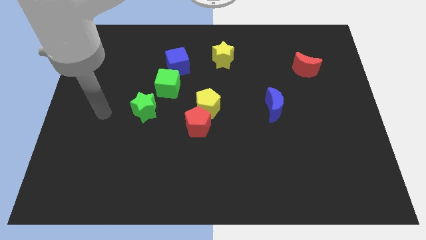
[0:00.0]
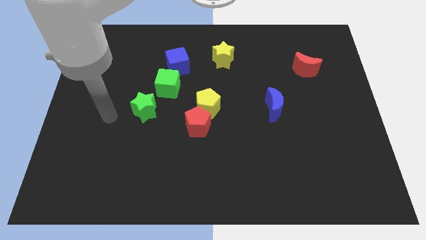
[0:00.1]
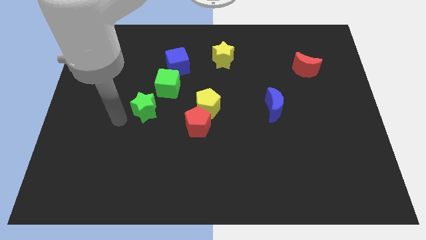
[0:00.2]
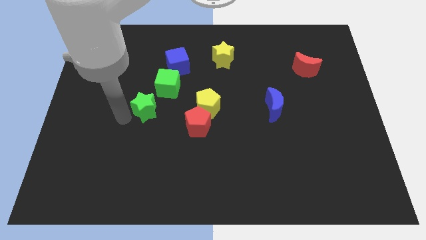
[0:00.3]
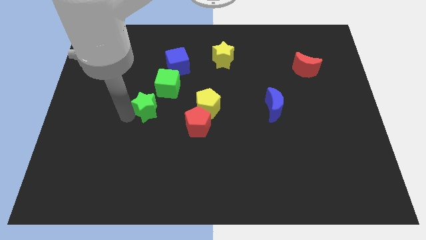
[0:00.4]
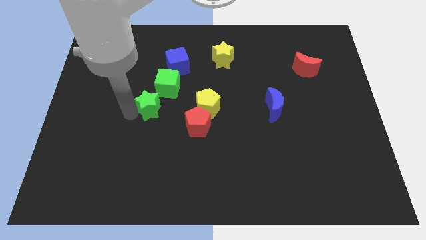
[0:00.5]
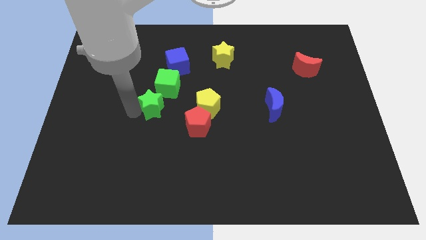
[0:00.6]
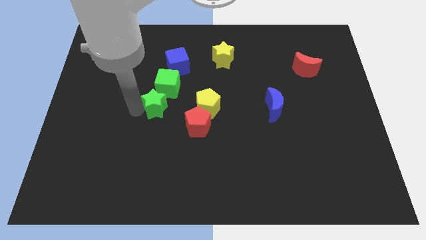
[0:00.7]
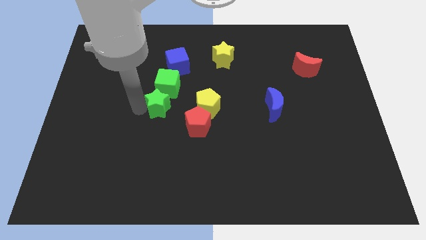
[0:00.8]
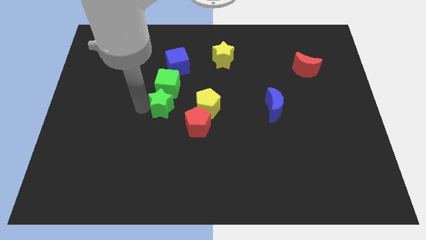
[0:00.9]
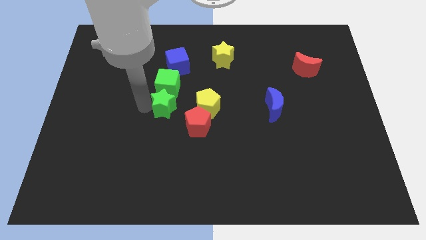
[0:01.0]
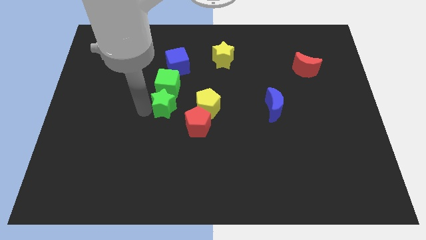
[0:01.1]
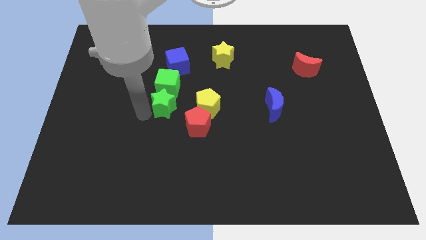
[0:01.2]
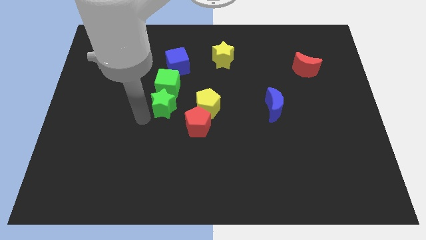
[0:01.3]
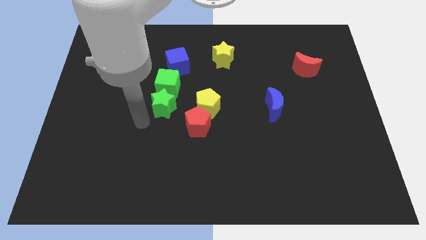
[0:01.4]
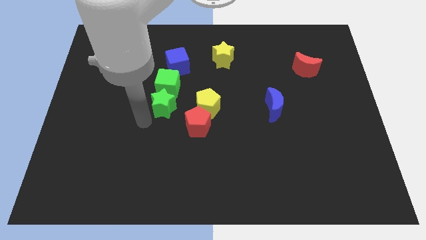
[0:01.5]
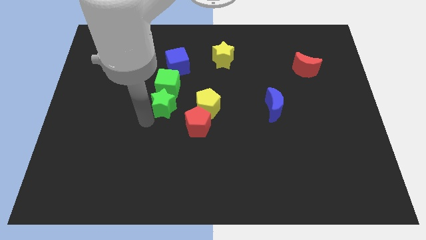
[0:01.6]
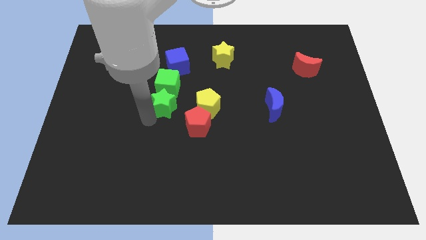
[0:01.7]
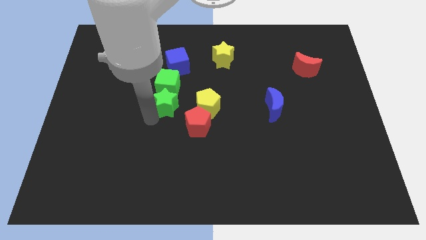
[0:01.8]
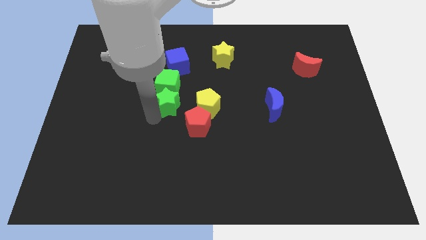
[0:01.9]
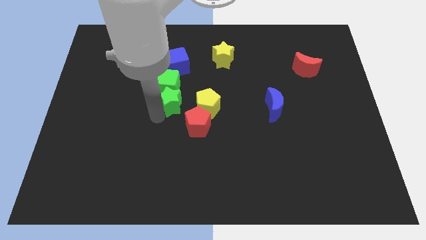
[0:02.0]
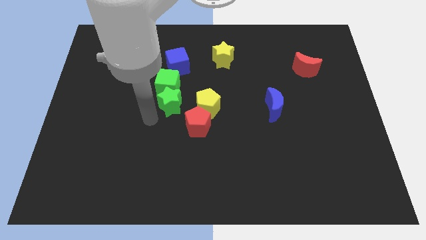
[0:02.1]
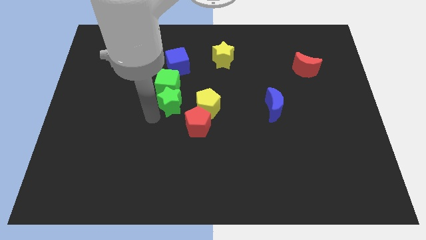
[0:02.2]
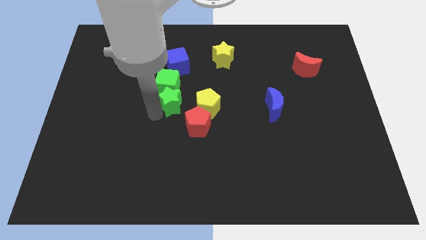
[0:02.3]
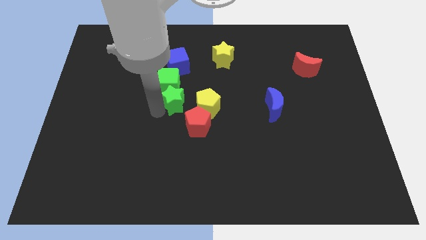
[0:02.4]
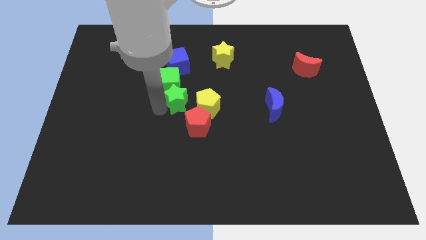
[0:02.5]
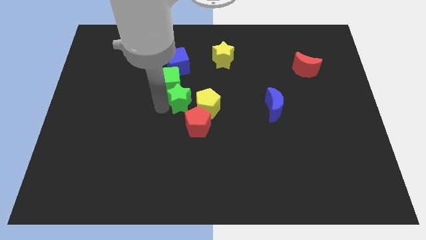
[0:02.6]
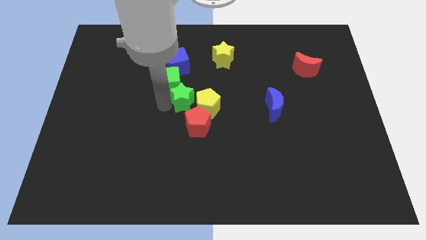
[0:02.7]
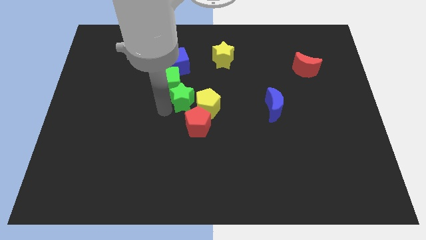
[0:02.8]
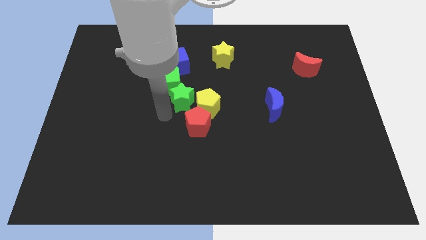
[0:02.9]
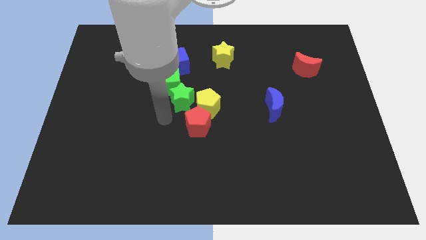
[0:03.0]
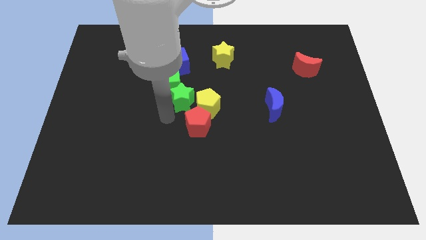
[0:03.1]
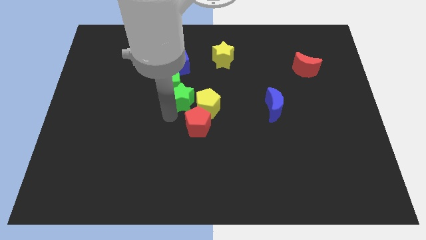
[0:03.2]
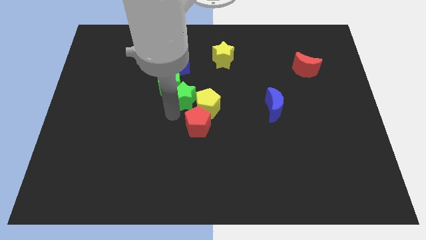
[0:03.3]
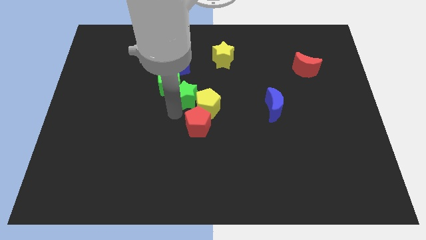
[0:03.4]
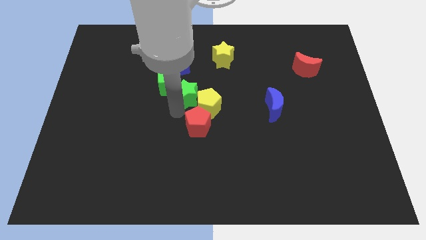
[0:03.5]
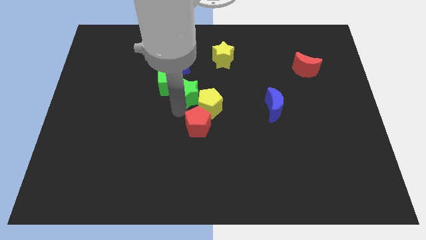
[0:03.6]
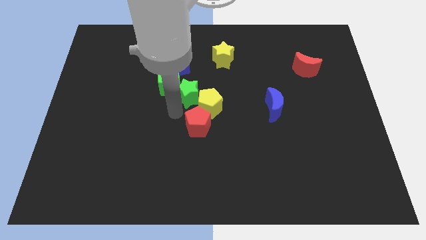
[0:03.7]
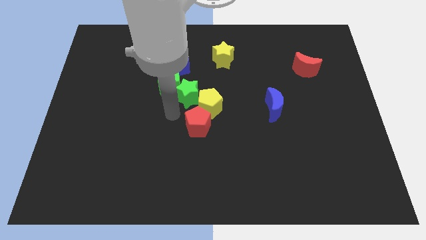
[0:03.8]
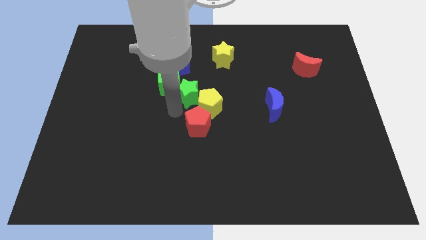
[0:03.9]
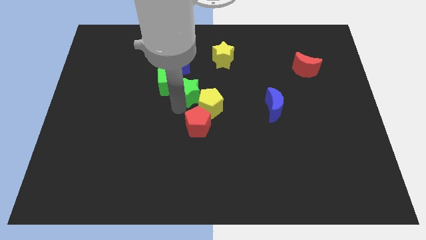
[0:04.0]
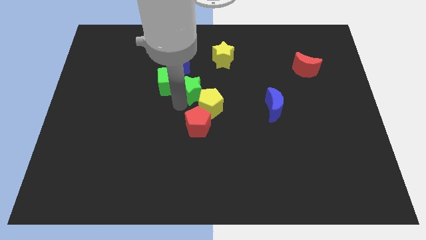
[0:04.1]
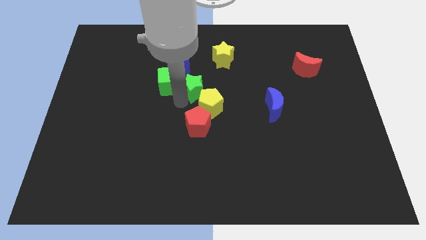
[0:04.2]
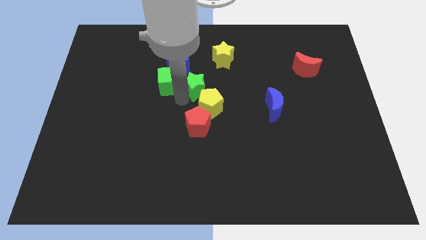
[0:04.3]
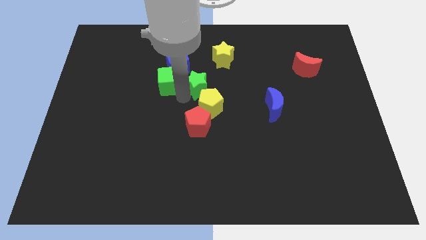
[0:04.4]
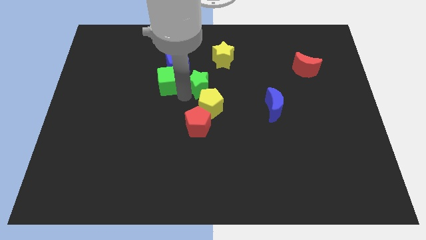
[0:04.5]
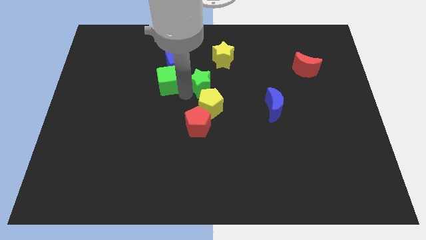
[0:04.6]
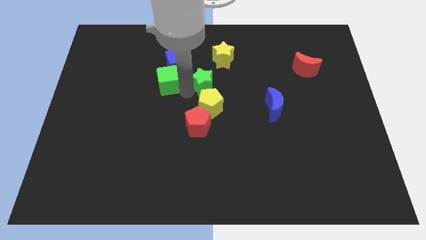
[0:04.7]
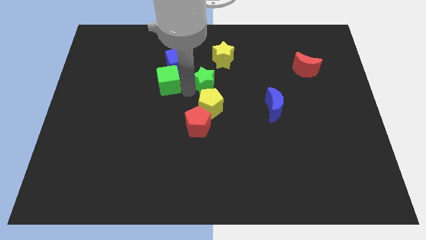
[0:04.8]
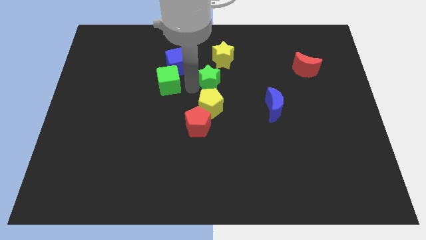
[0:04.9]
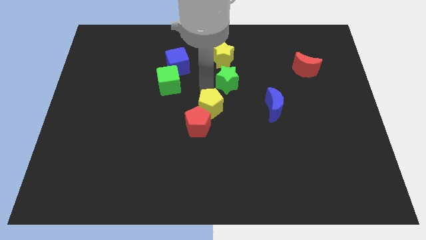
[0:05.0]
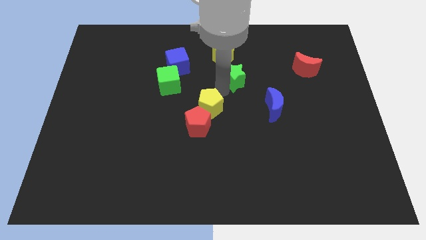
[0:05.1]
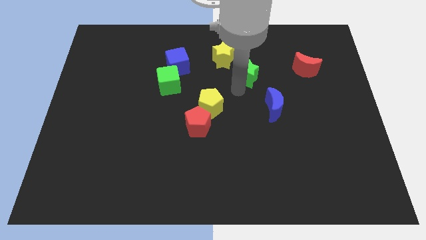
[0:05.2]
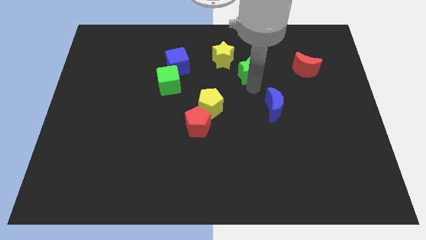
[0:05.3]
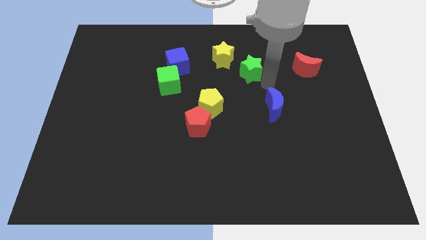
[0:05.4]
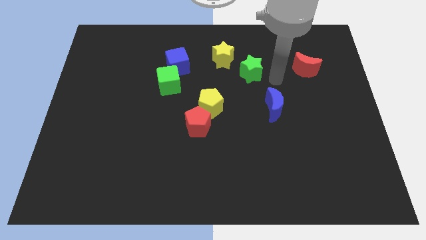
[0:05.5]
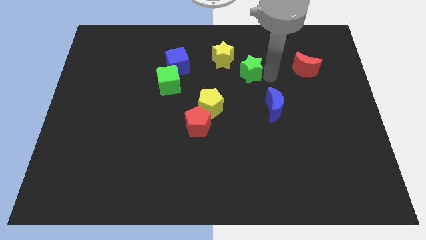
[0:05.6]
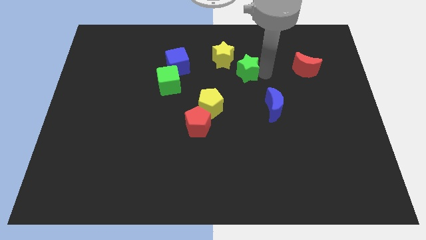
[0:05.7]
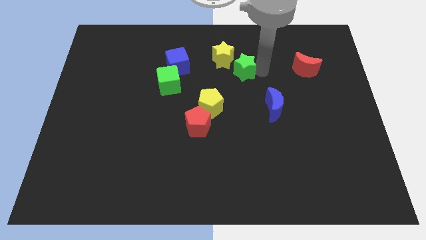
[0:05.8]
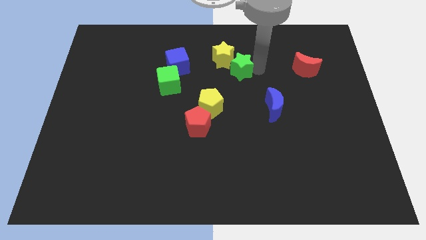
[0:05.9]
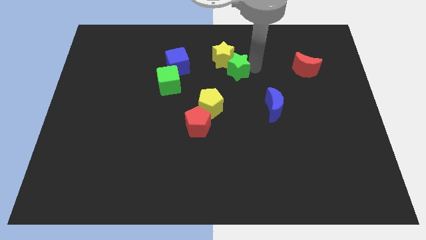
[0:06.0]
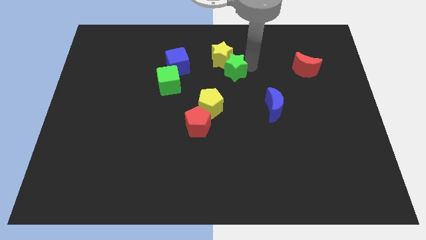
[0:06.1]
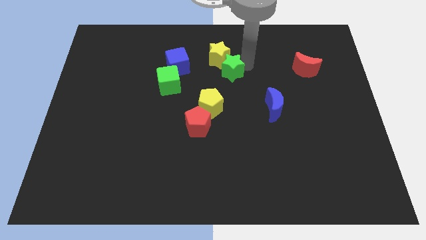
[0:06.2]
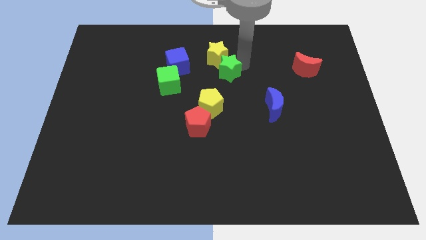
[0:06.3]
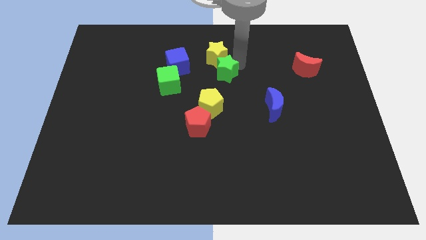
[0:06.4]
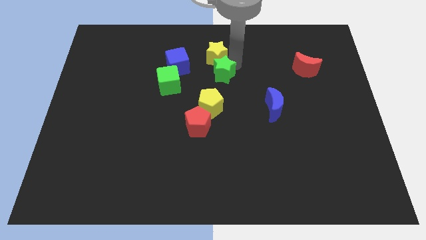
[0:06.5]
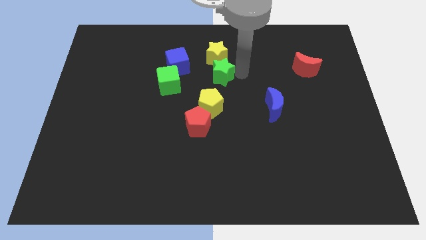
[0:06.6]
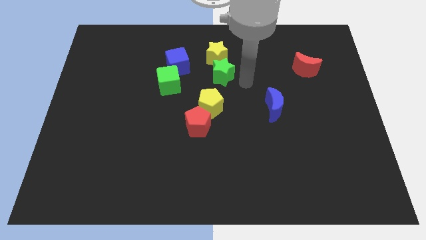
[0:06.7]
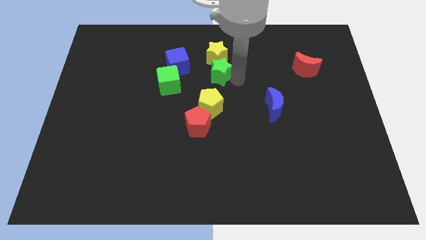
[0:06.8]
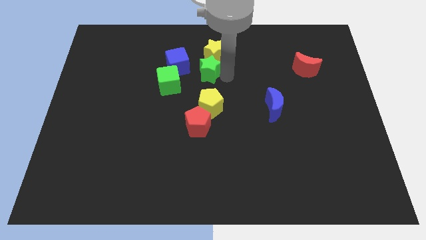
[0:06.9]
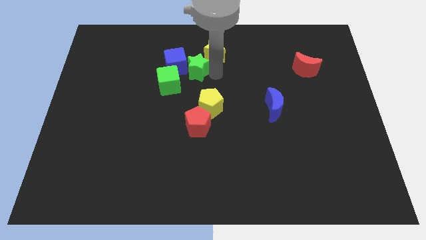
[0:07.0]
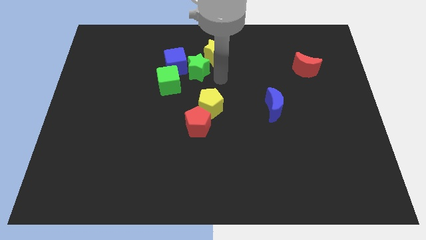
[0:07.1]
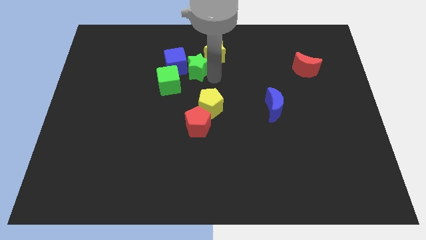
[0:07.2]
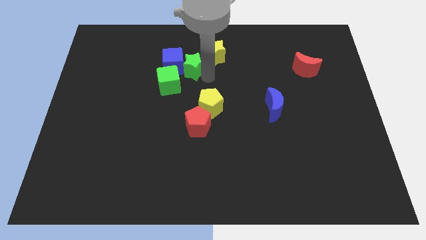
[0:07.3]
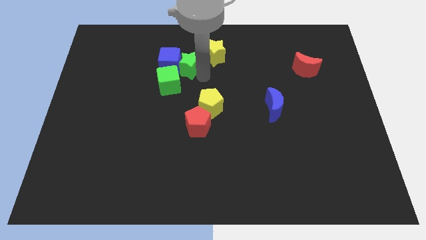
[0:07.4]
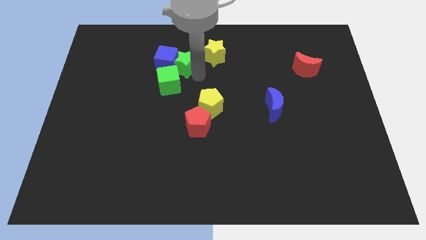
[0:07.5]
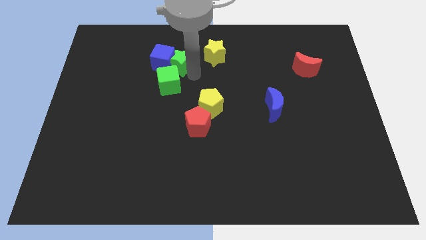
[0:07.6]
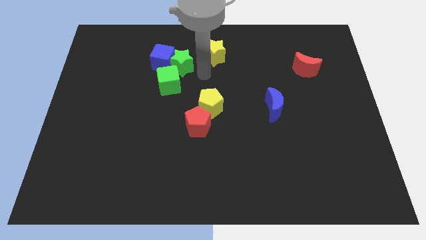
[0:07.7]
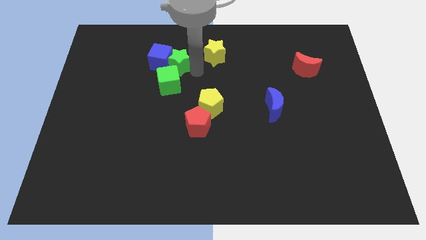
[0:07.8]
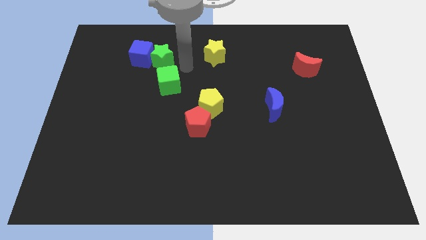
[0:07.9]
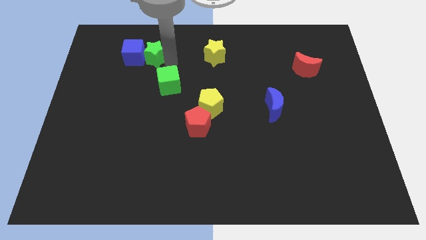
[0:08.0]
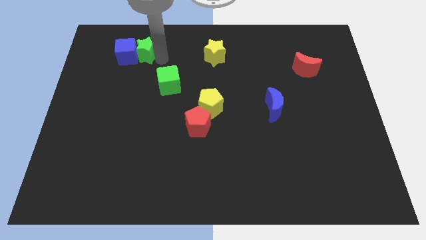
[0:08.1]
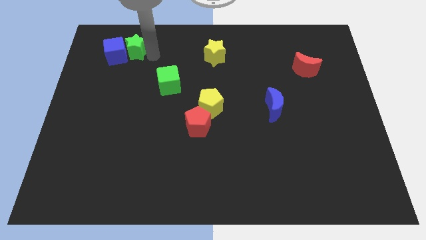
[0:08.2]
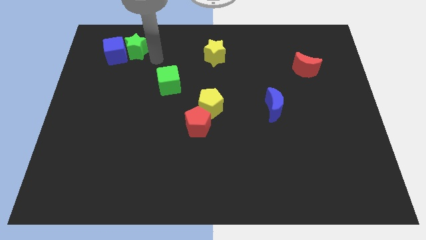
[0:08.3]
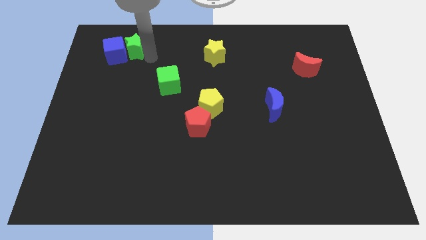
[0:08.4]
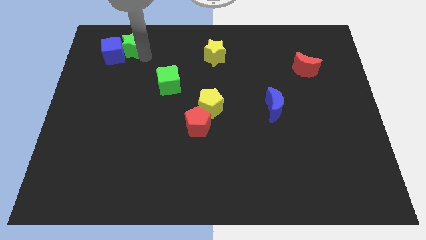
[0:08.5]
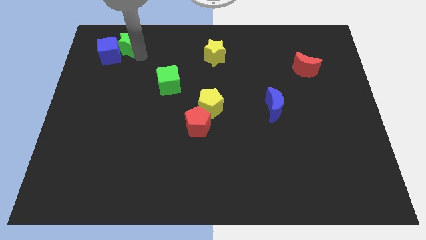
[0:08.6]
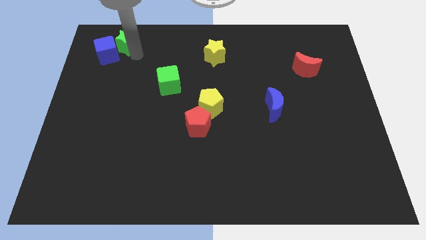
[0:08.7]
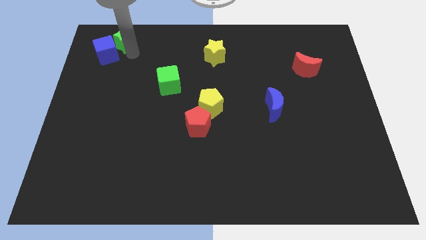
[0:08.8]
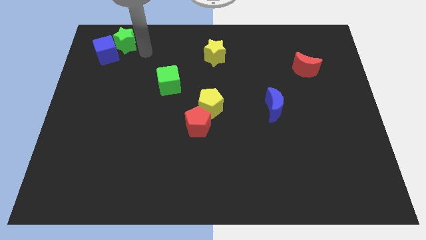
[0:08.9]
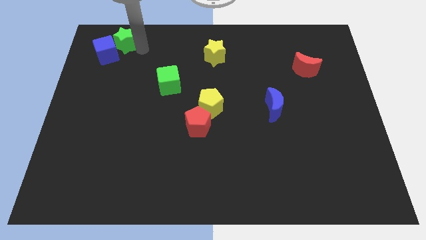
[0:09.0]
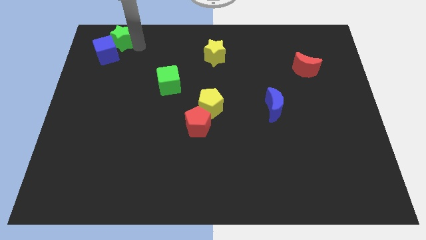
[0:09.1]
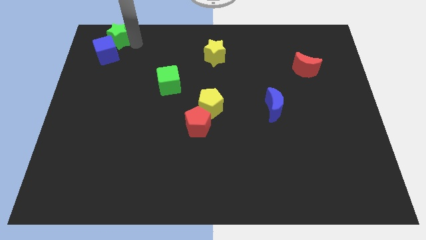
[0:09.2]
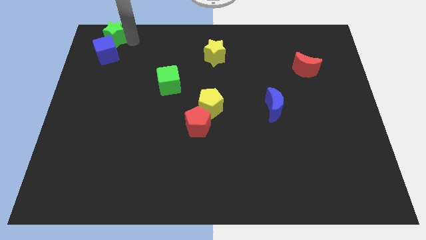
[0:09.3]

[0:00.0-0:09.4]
move the green star to the top left
